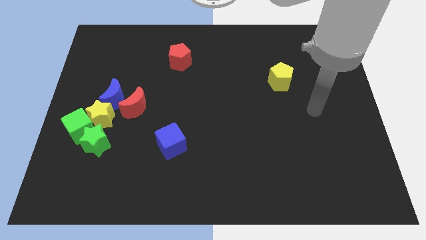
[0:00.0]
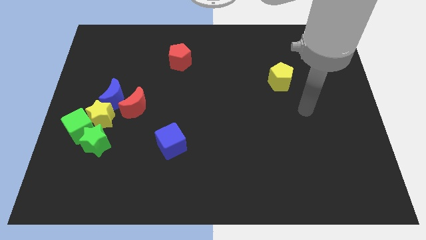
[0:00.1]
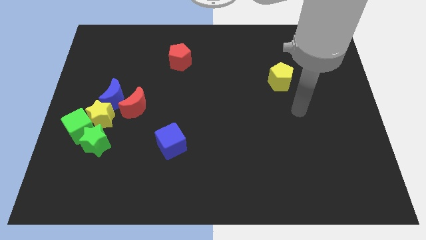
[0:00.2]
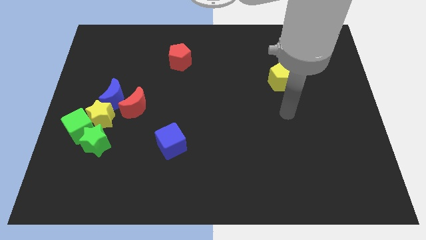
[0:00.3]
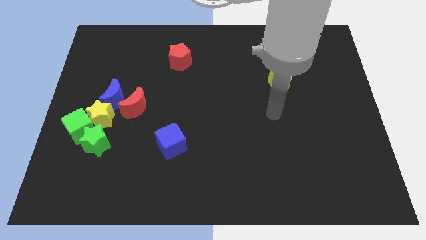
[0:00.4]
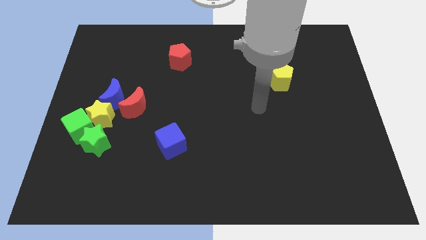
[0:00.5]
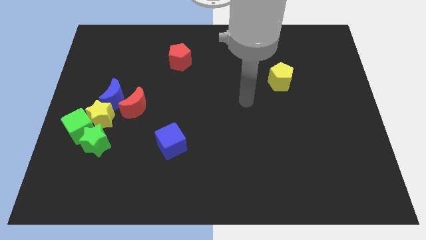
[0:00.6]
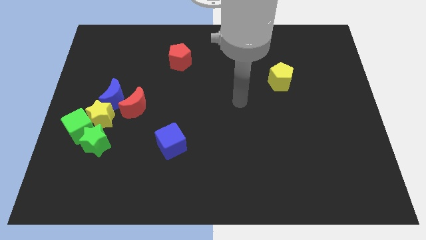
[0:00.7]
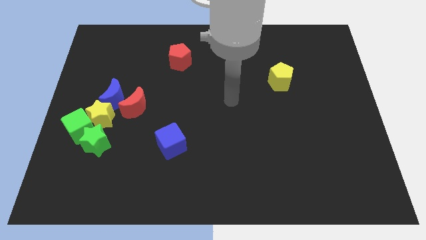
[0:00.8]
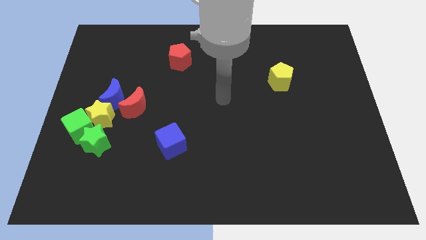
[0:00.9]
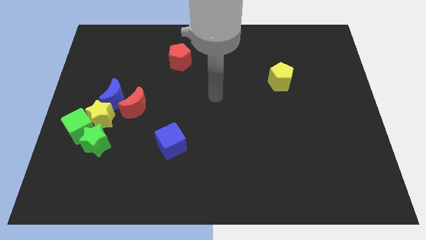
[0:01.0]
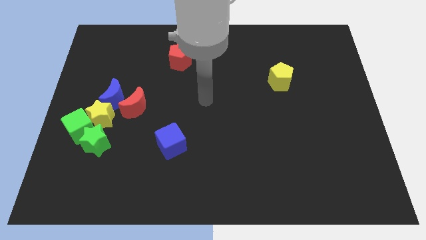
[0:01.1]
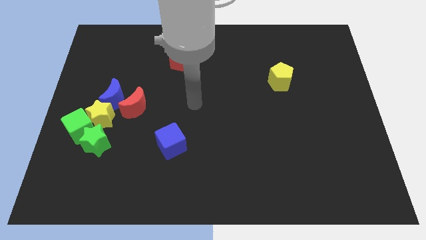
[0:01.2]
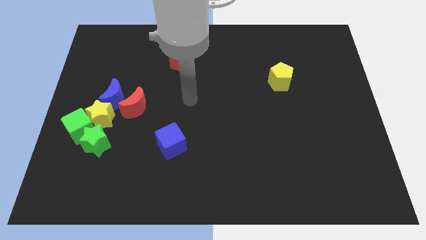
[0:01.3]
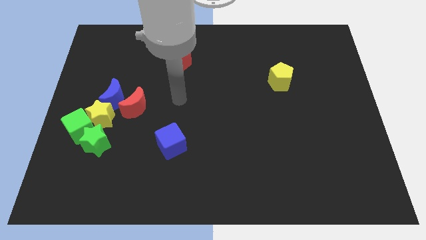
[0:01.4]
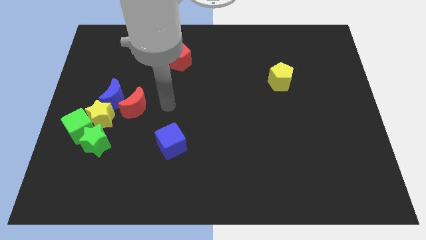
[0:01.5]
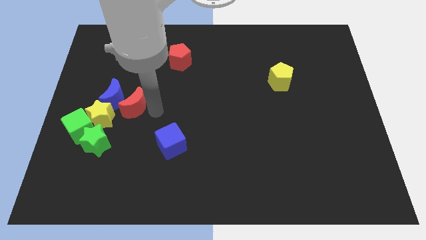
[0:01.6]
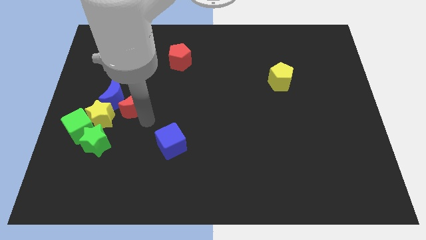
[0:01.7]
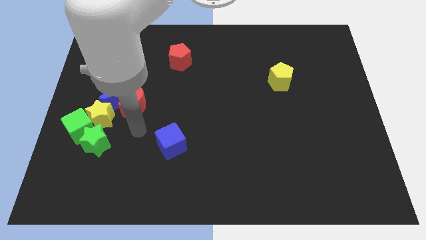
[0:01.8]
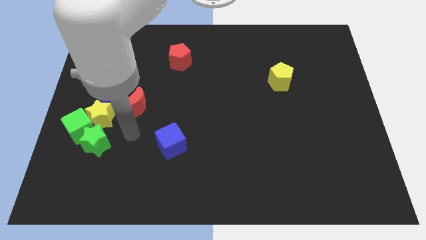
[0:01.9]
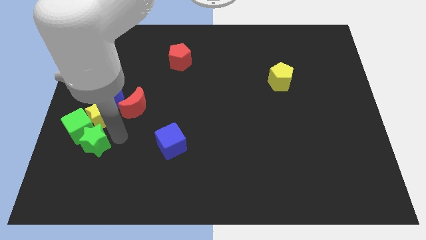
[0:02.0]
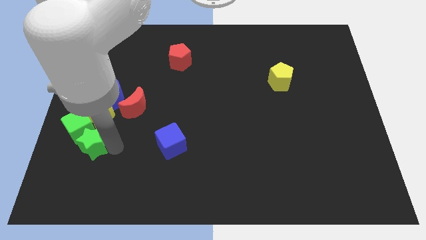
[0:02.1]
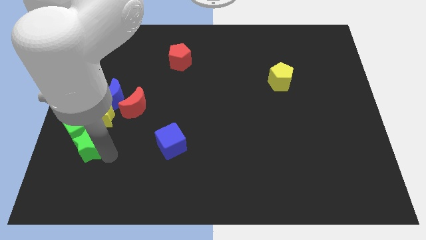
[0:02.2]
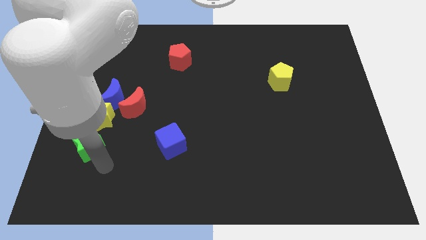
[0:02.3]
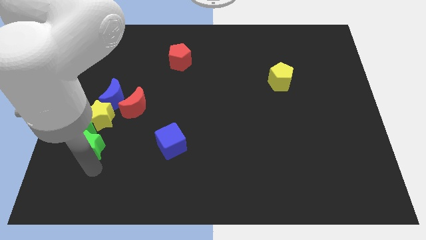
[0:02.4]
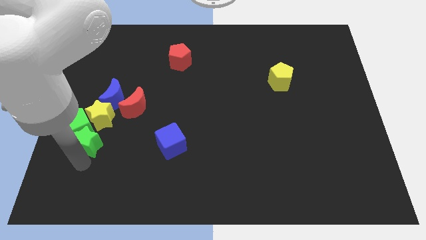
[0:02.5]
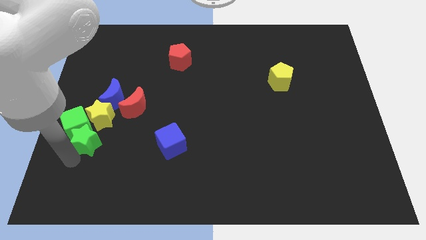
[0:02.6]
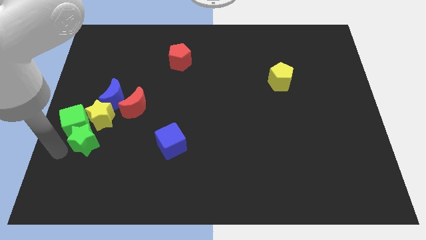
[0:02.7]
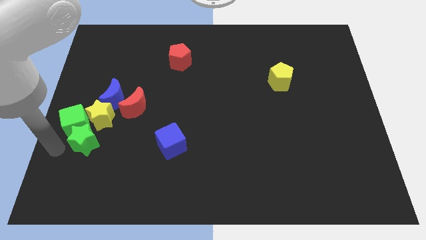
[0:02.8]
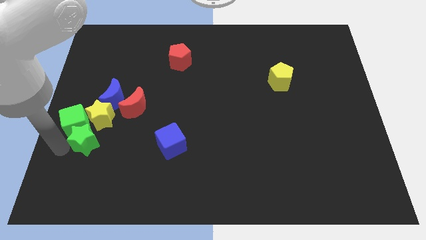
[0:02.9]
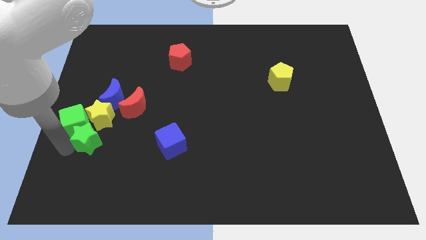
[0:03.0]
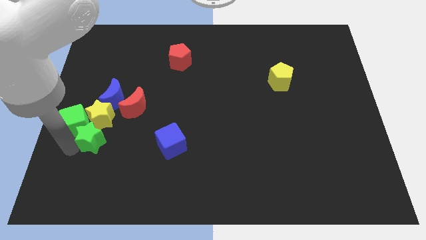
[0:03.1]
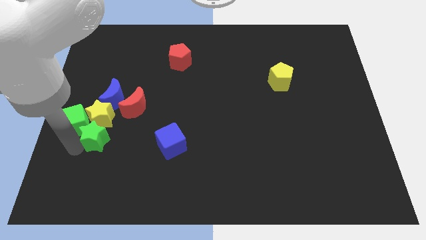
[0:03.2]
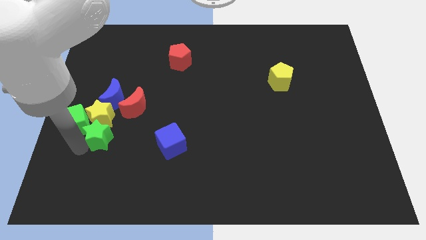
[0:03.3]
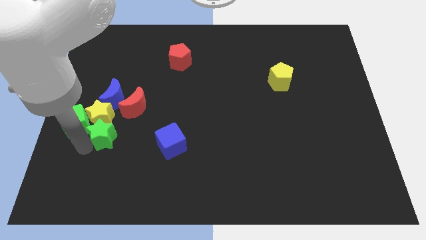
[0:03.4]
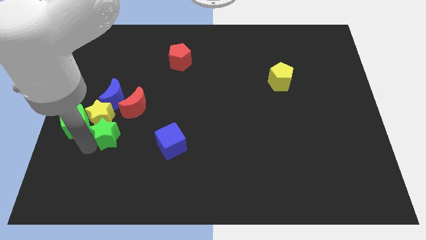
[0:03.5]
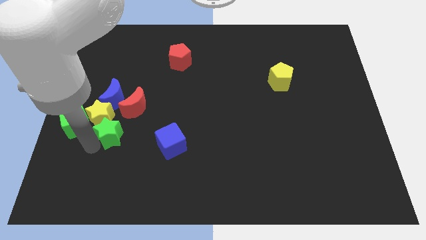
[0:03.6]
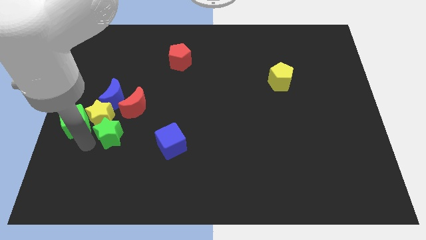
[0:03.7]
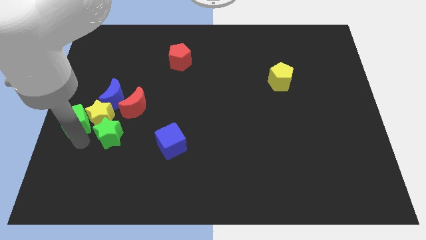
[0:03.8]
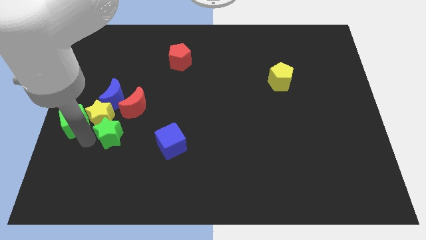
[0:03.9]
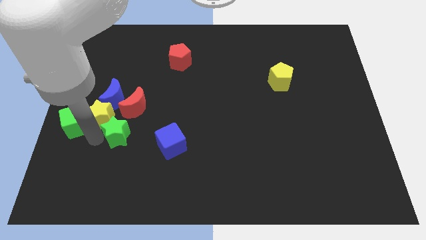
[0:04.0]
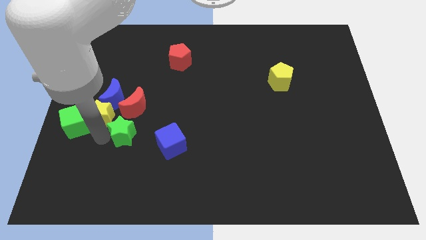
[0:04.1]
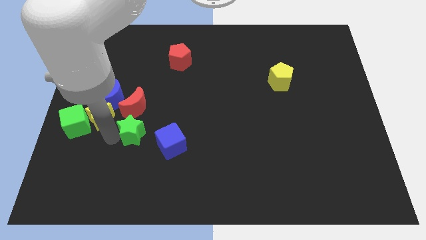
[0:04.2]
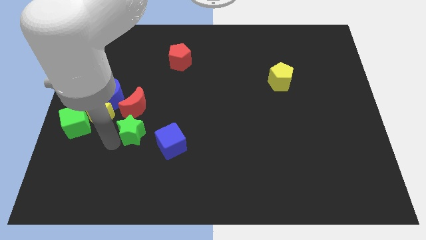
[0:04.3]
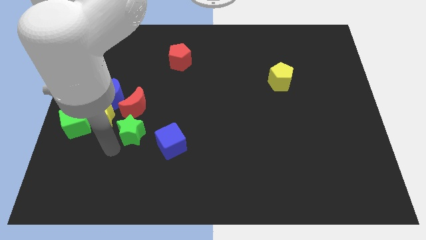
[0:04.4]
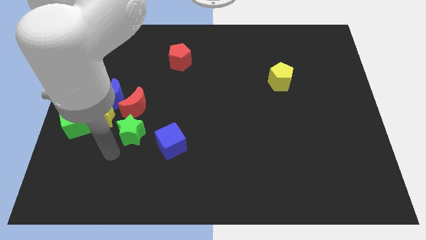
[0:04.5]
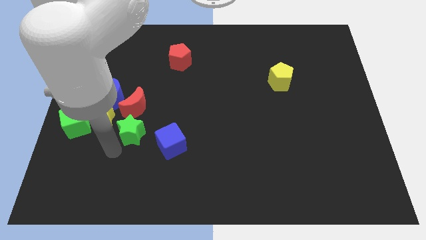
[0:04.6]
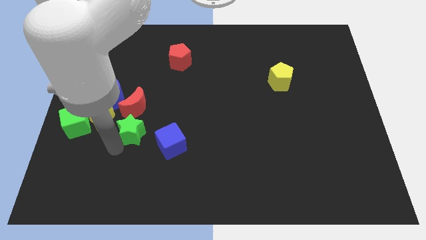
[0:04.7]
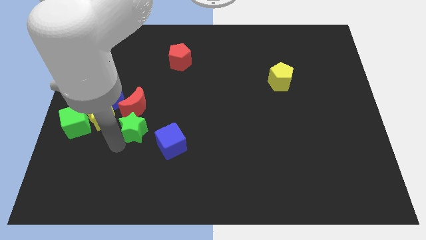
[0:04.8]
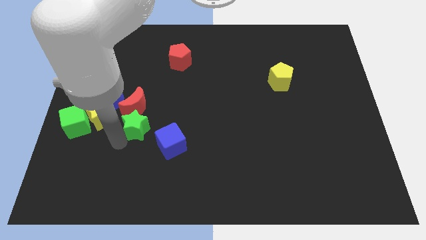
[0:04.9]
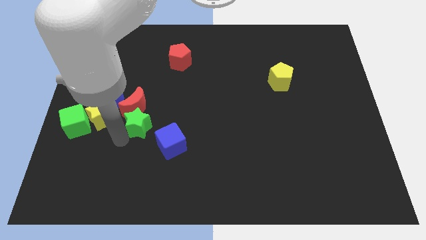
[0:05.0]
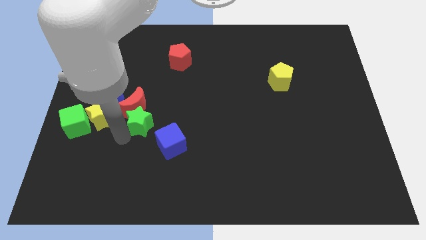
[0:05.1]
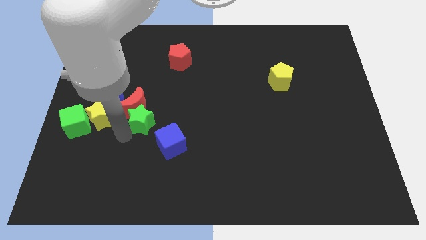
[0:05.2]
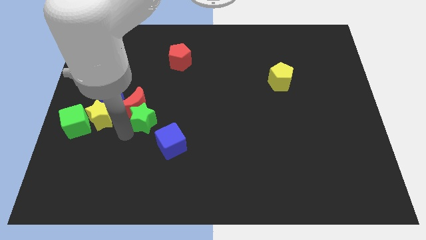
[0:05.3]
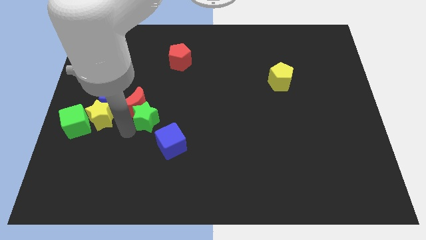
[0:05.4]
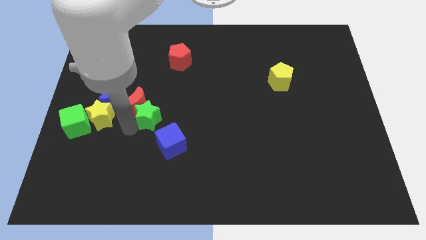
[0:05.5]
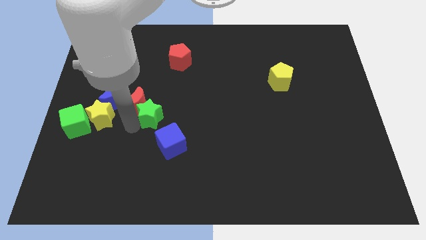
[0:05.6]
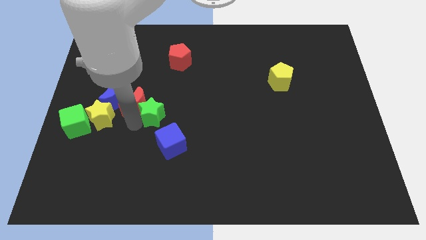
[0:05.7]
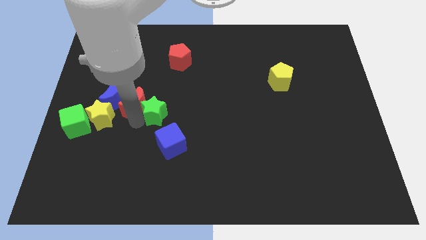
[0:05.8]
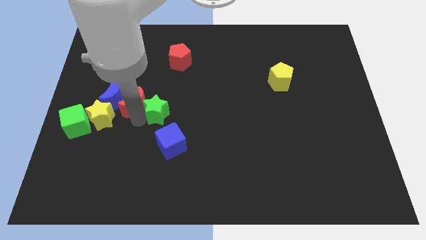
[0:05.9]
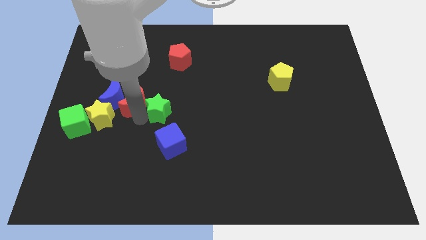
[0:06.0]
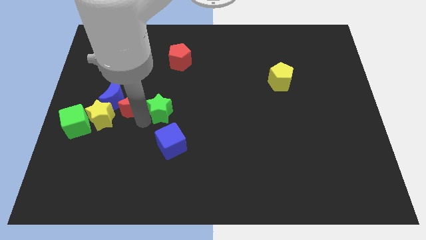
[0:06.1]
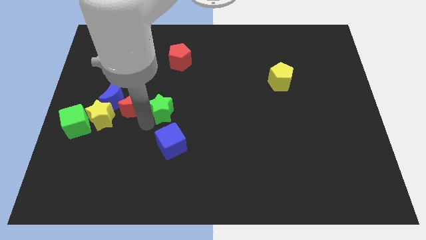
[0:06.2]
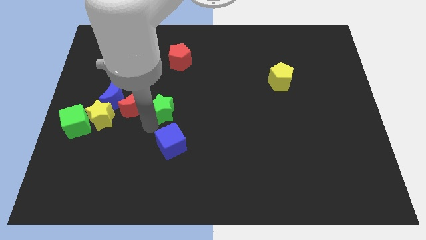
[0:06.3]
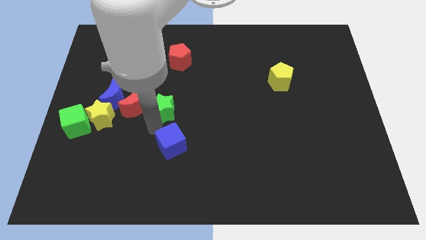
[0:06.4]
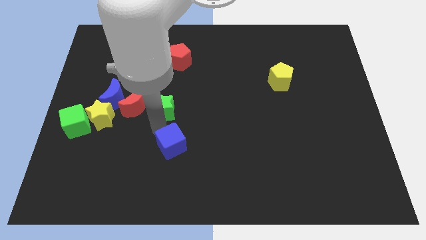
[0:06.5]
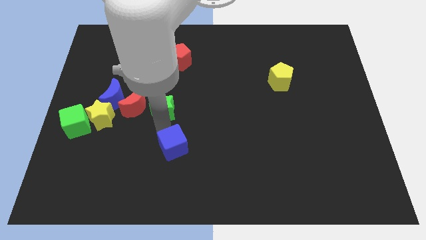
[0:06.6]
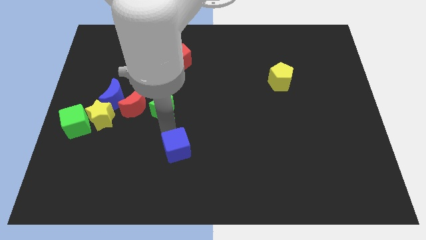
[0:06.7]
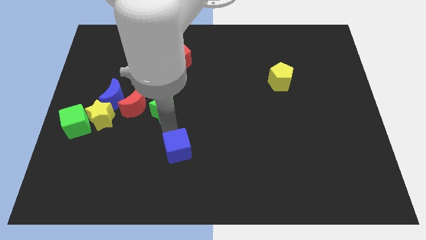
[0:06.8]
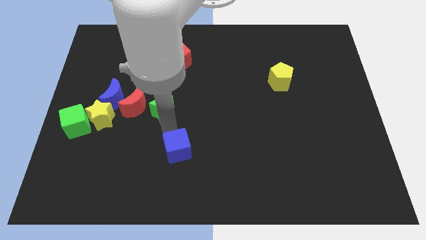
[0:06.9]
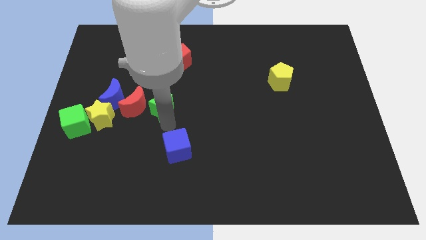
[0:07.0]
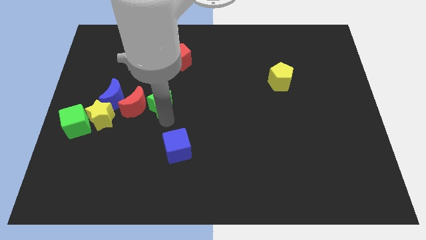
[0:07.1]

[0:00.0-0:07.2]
push the green star to the bottom of the red pentagon
